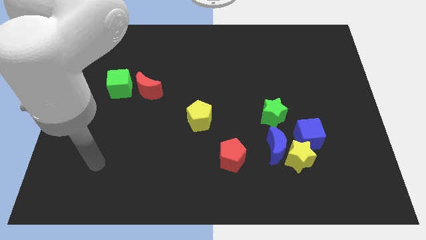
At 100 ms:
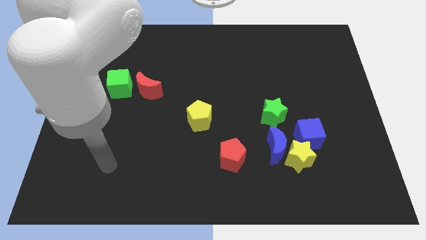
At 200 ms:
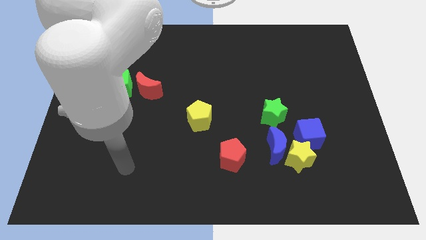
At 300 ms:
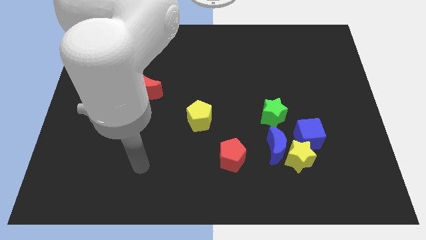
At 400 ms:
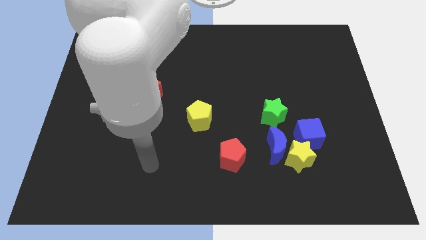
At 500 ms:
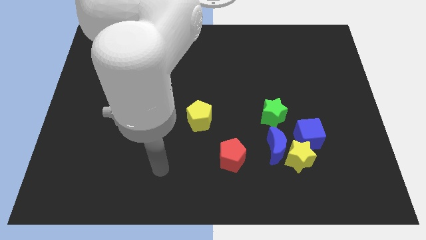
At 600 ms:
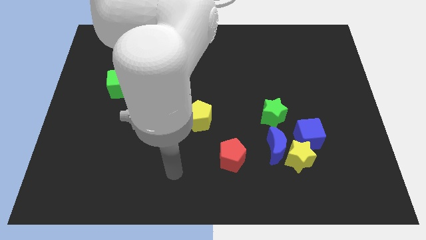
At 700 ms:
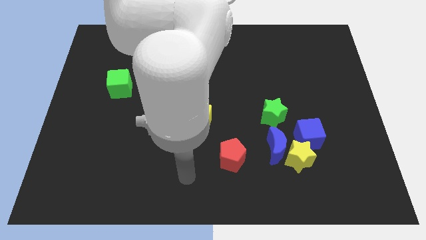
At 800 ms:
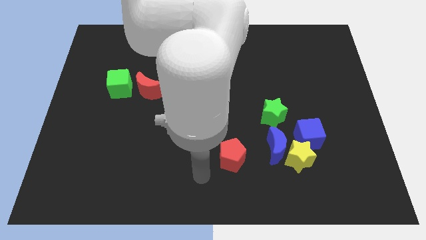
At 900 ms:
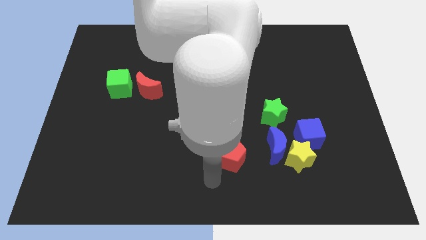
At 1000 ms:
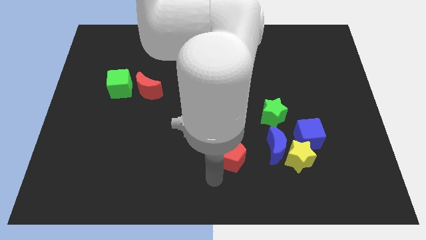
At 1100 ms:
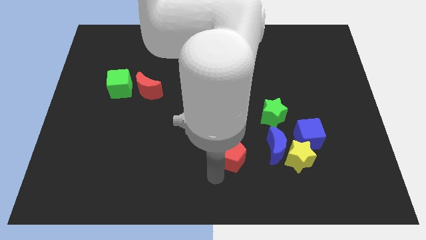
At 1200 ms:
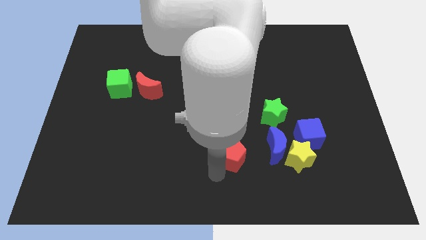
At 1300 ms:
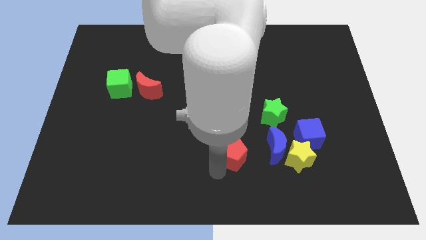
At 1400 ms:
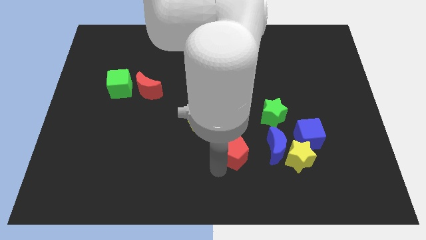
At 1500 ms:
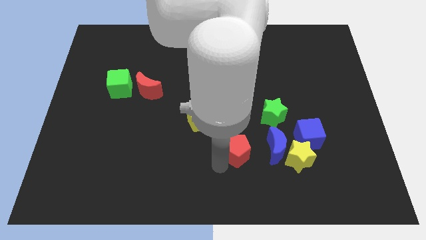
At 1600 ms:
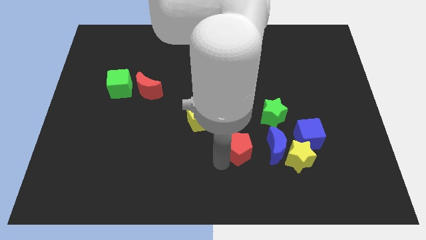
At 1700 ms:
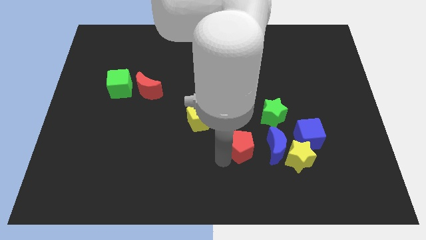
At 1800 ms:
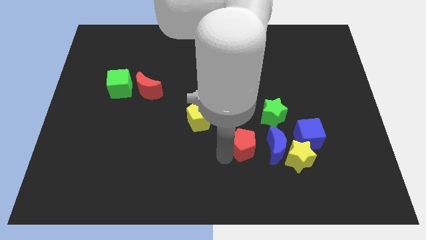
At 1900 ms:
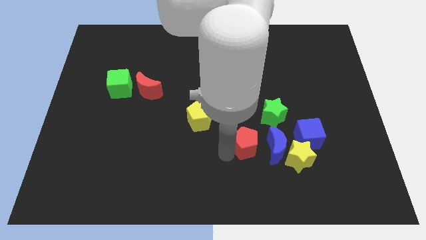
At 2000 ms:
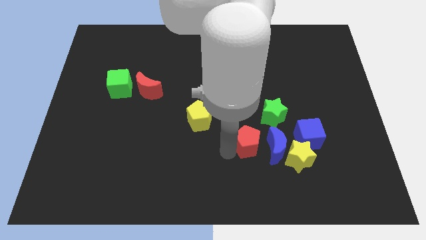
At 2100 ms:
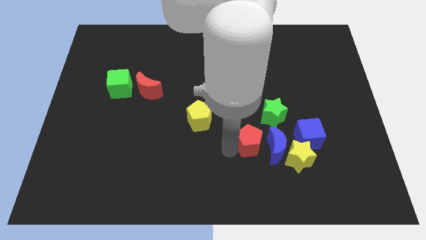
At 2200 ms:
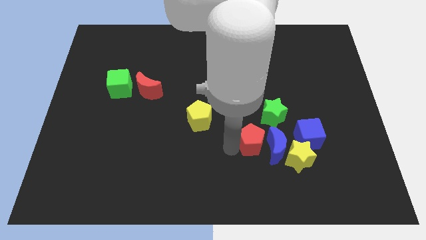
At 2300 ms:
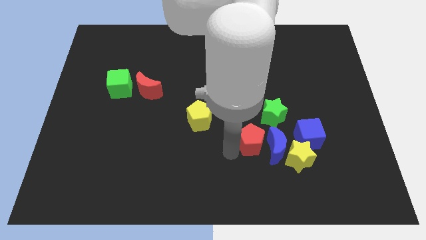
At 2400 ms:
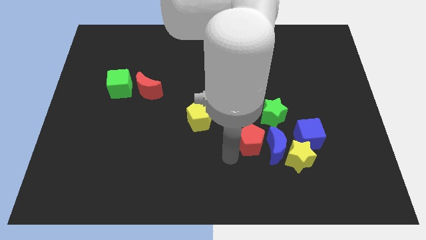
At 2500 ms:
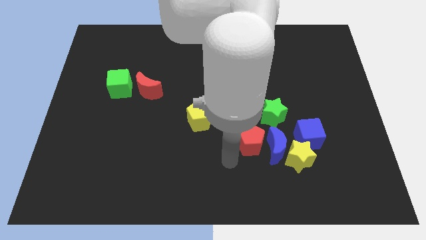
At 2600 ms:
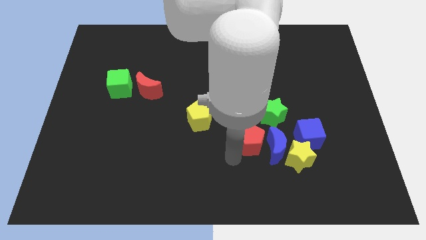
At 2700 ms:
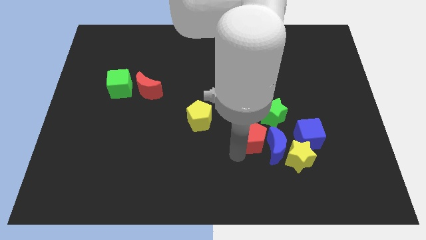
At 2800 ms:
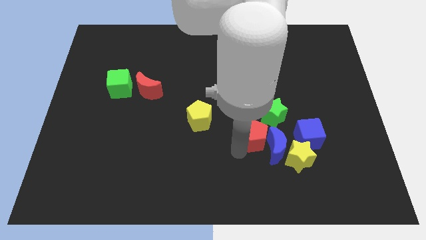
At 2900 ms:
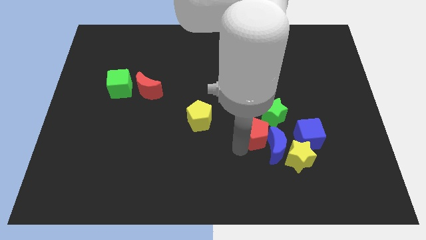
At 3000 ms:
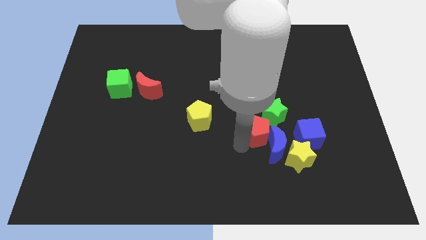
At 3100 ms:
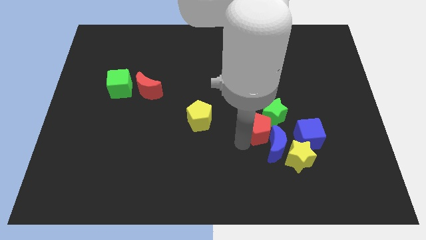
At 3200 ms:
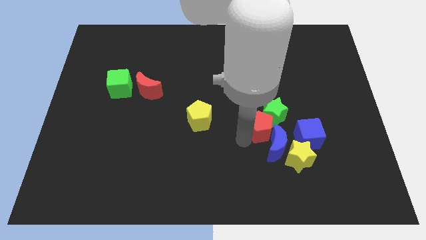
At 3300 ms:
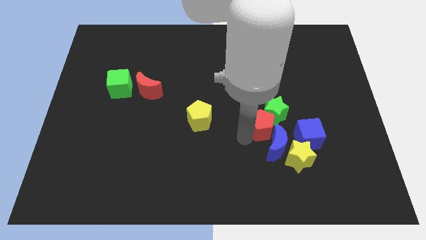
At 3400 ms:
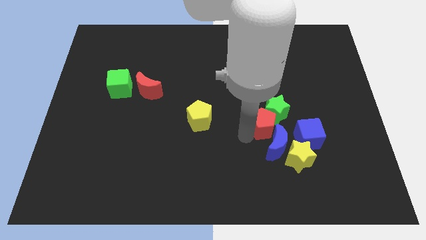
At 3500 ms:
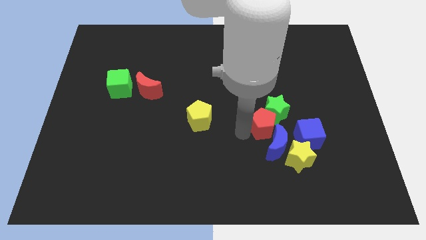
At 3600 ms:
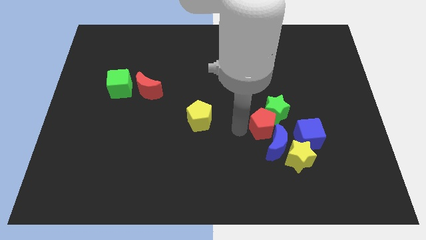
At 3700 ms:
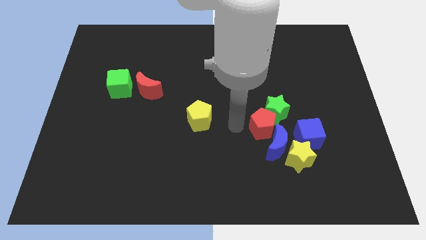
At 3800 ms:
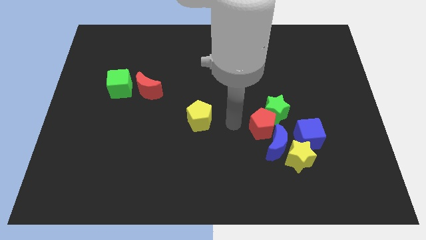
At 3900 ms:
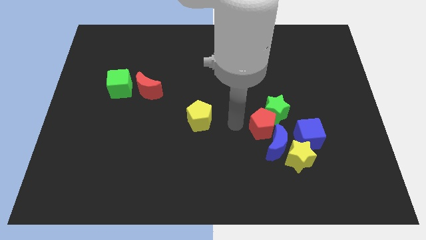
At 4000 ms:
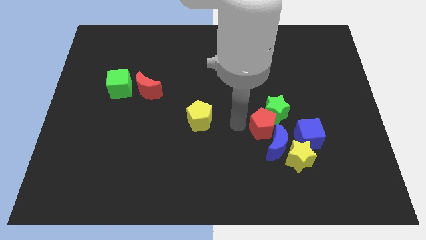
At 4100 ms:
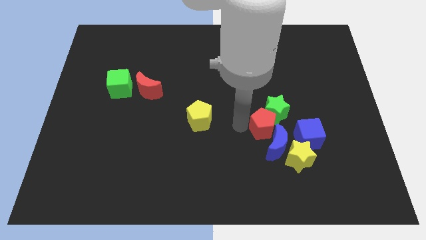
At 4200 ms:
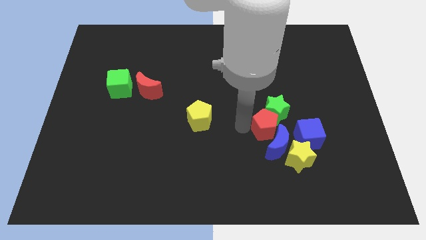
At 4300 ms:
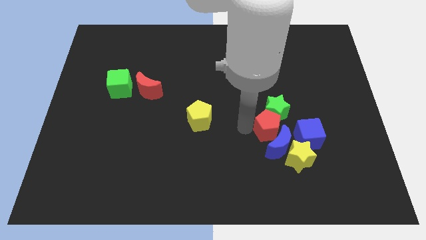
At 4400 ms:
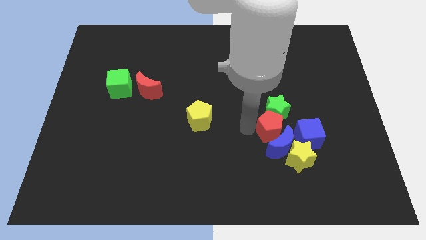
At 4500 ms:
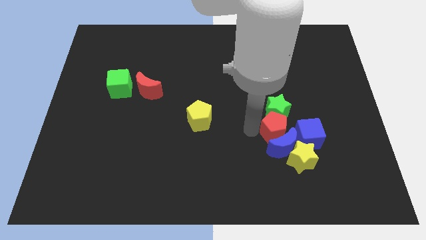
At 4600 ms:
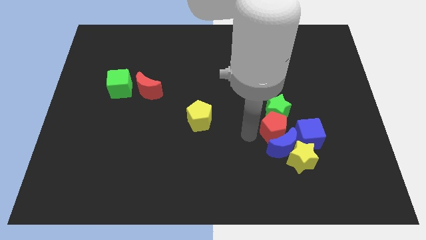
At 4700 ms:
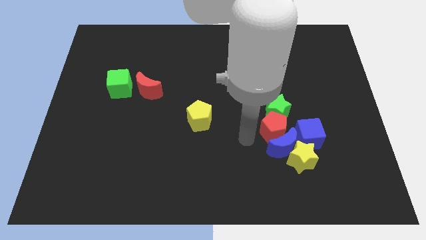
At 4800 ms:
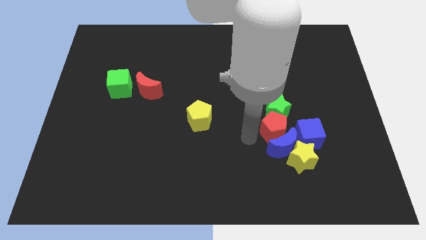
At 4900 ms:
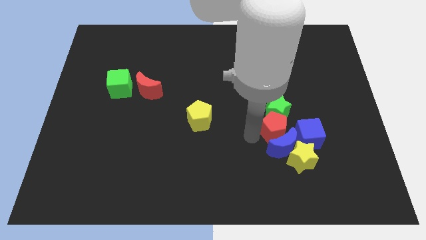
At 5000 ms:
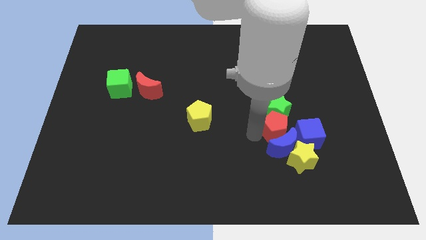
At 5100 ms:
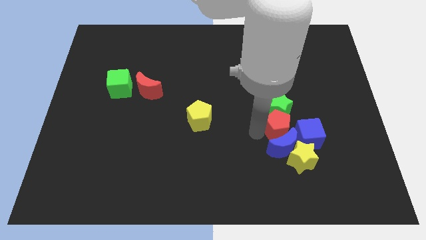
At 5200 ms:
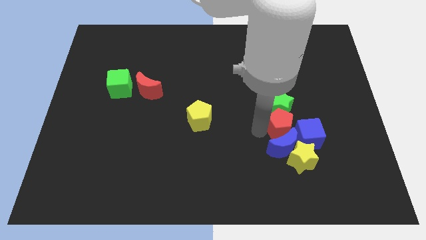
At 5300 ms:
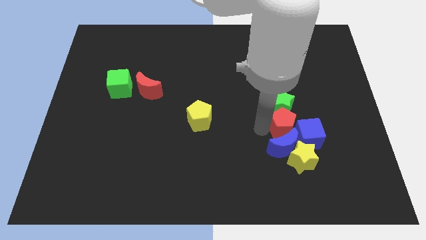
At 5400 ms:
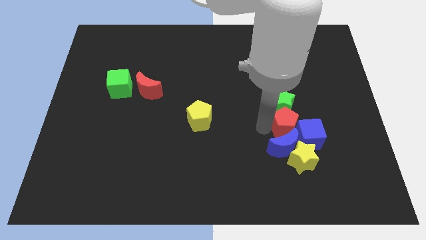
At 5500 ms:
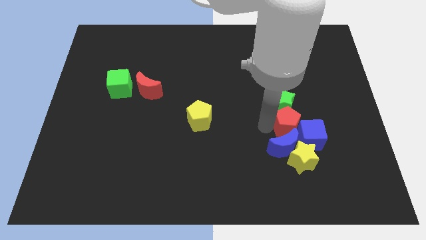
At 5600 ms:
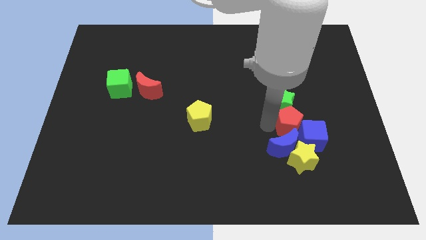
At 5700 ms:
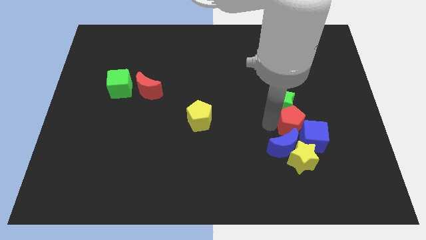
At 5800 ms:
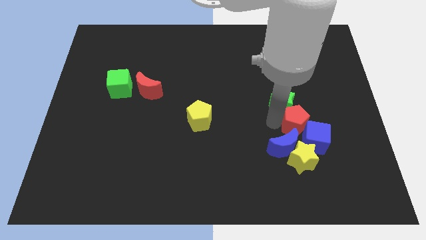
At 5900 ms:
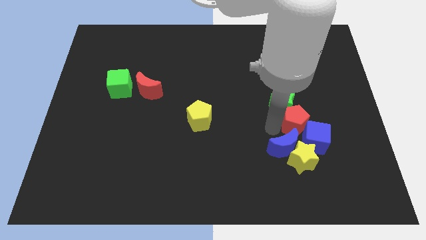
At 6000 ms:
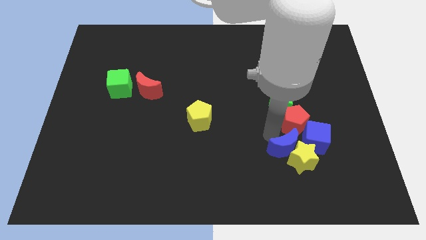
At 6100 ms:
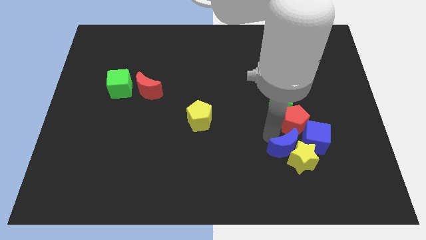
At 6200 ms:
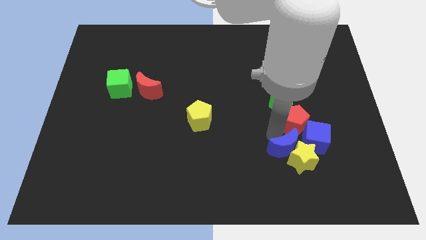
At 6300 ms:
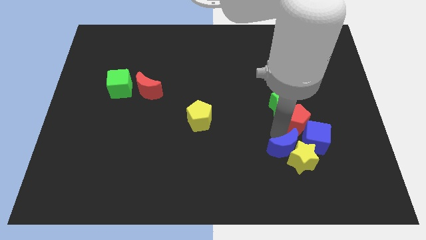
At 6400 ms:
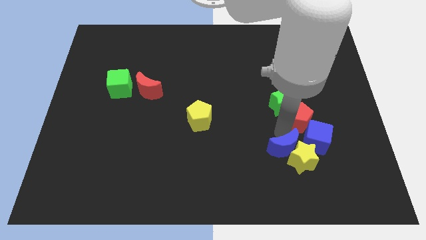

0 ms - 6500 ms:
put the red pentagon right of the green star
